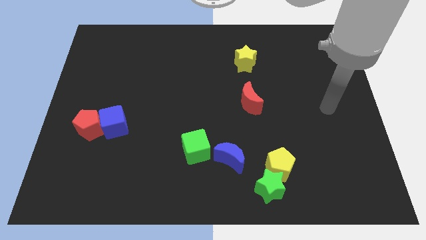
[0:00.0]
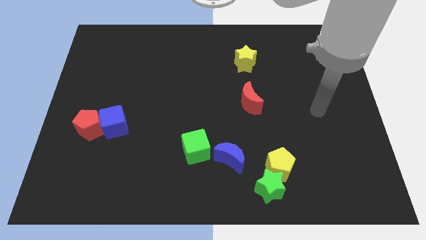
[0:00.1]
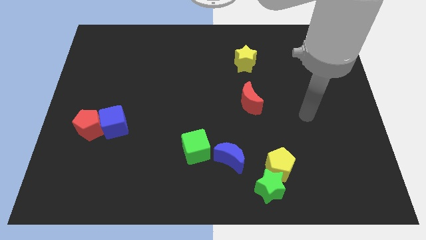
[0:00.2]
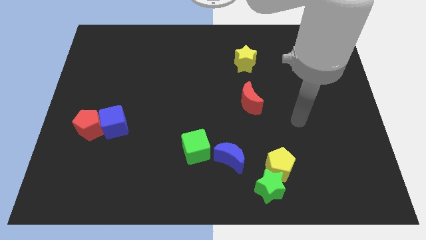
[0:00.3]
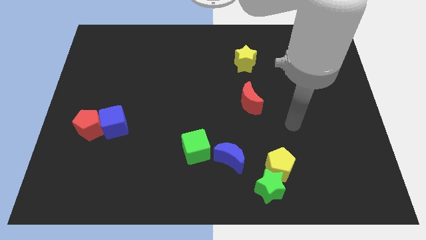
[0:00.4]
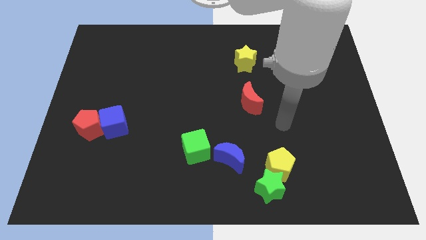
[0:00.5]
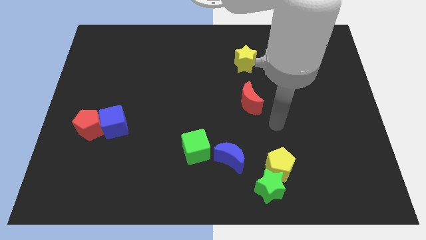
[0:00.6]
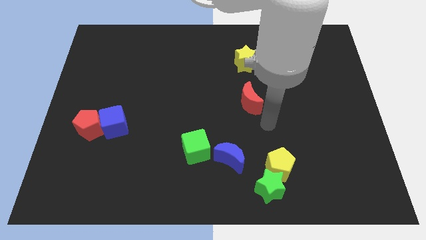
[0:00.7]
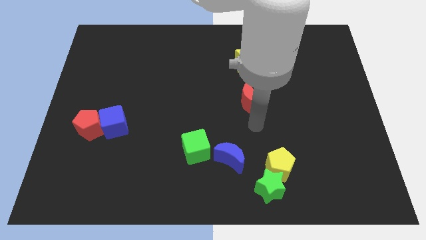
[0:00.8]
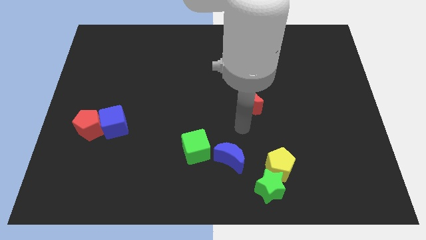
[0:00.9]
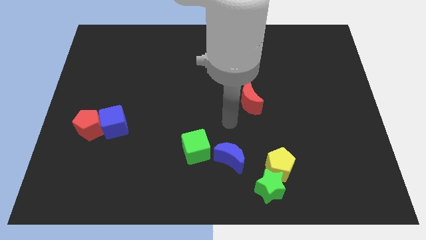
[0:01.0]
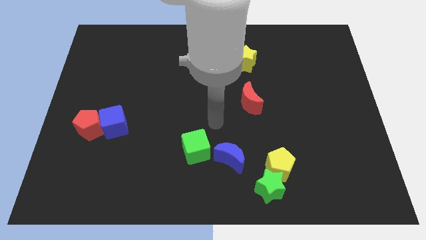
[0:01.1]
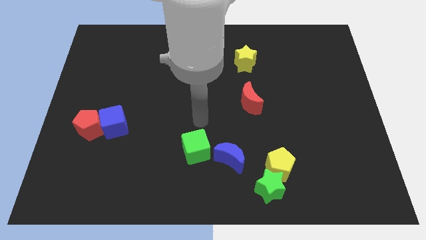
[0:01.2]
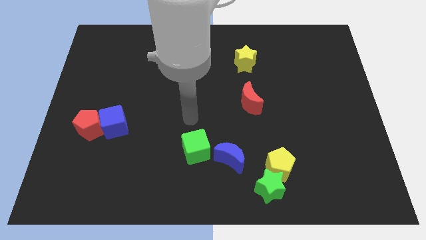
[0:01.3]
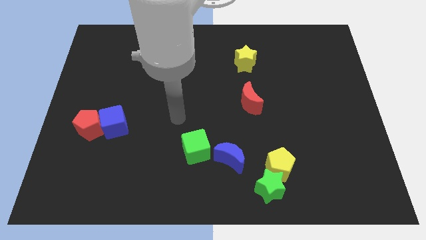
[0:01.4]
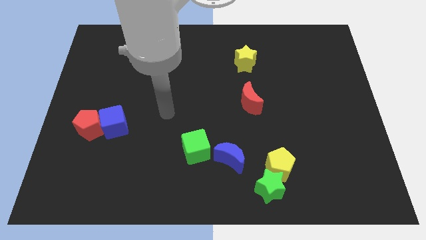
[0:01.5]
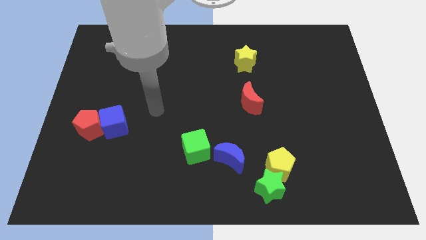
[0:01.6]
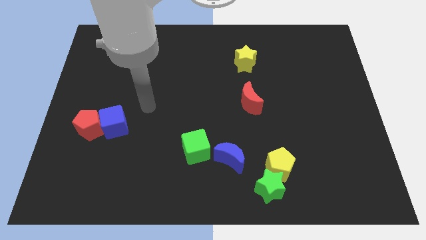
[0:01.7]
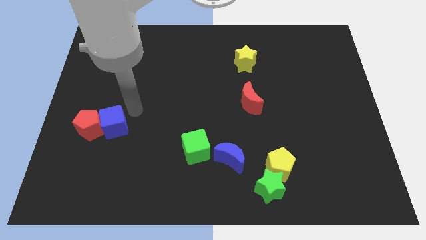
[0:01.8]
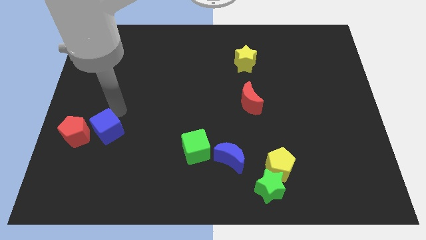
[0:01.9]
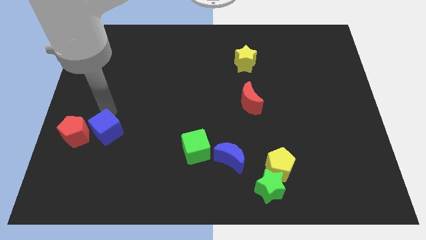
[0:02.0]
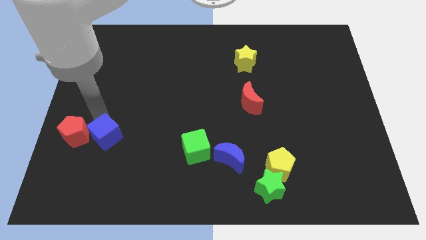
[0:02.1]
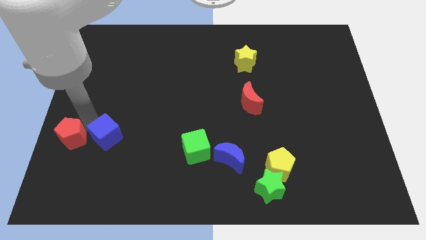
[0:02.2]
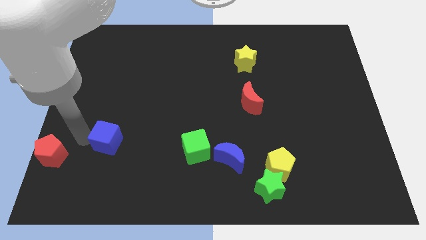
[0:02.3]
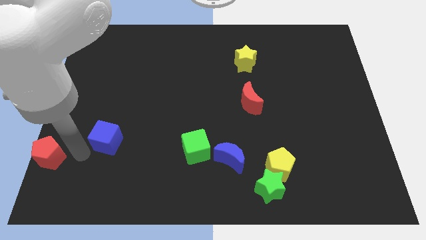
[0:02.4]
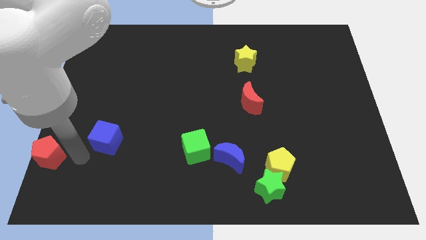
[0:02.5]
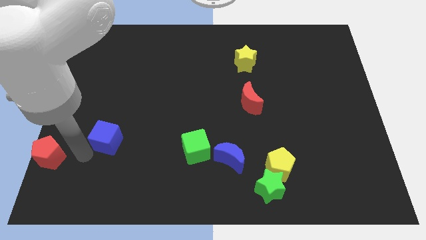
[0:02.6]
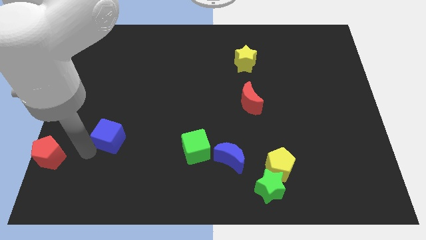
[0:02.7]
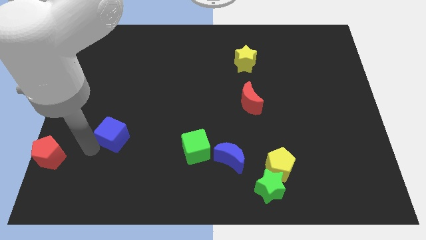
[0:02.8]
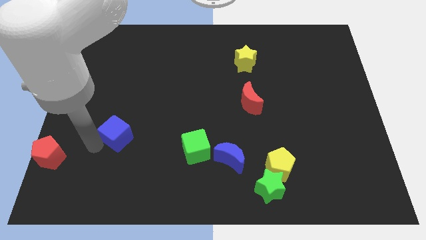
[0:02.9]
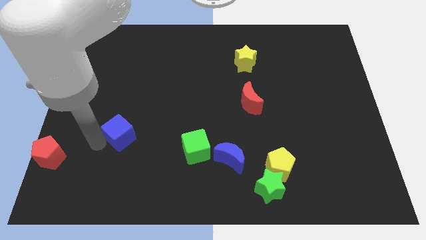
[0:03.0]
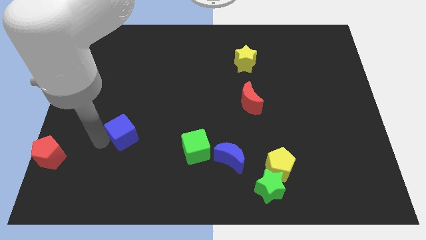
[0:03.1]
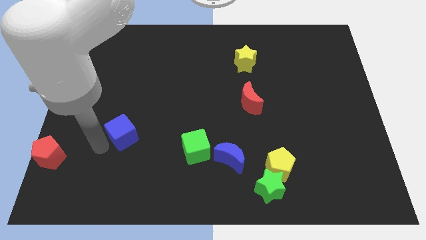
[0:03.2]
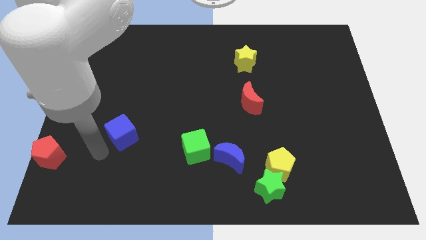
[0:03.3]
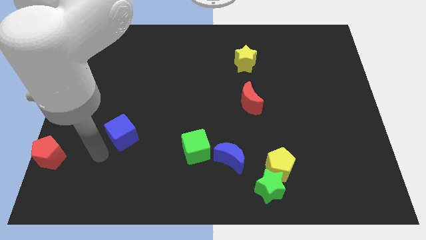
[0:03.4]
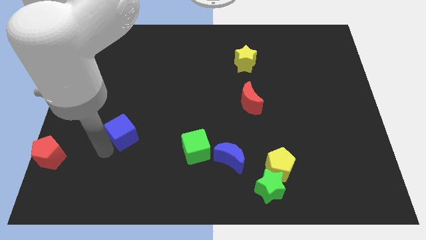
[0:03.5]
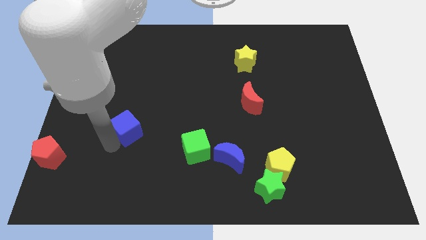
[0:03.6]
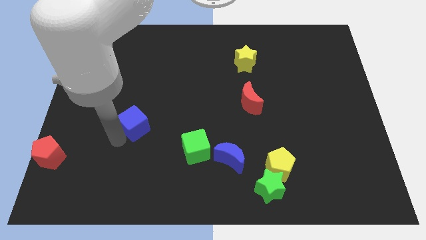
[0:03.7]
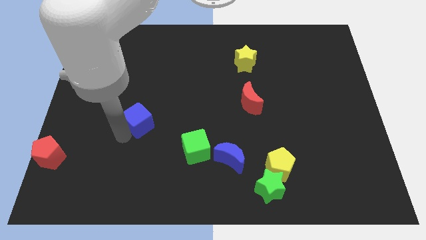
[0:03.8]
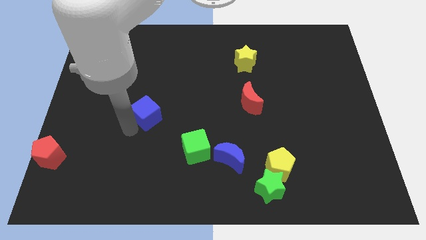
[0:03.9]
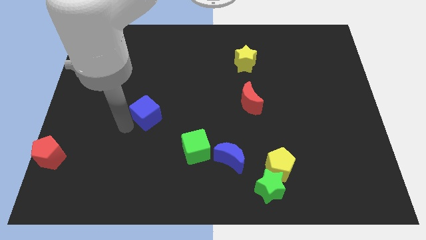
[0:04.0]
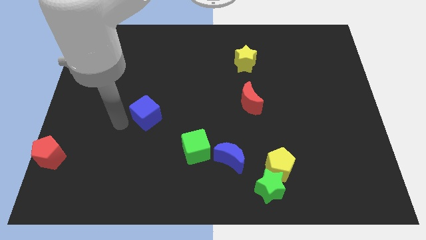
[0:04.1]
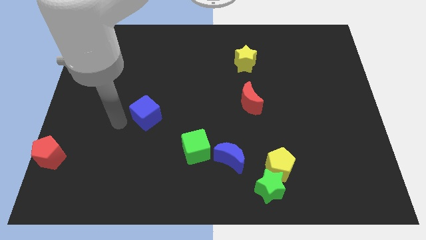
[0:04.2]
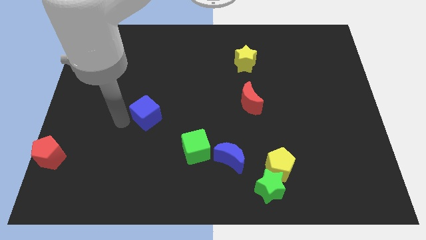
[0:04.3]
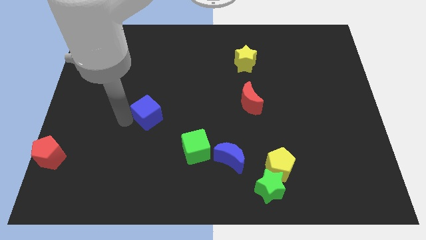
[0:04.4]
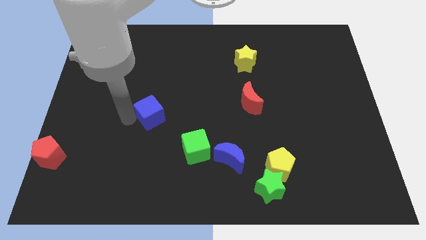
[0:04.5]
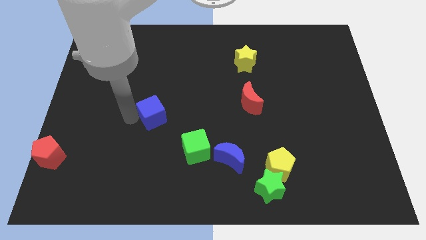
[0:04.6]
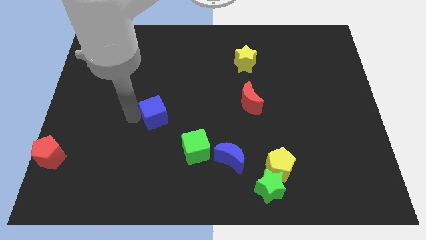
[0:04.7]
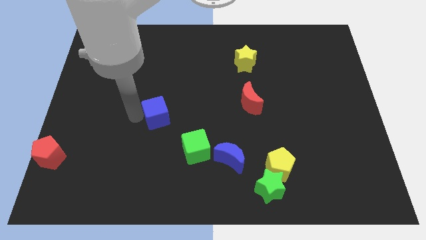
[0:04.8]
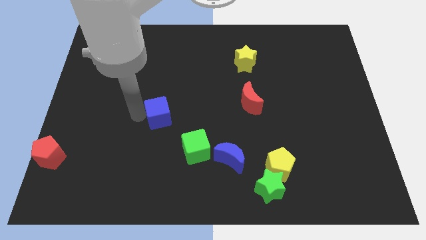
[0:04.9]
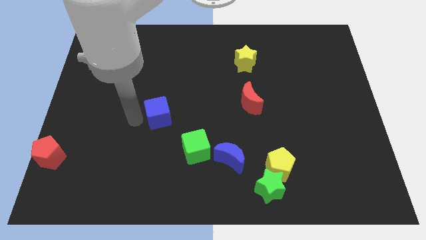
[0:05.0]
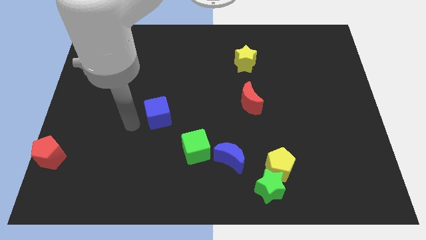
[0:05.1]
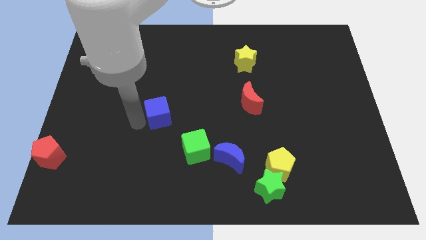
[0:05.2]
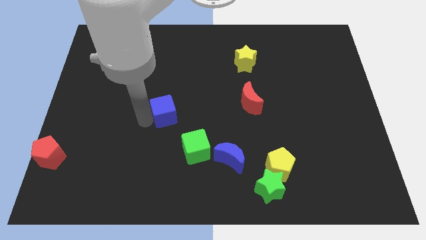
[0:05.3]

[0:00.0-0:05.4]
push the blue cube to the middle

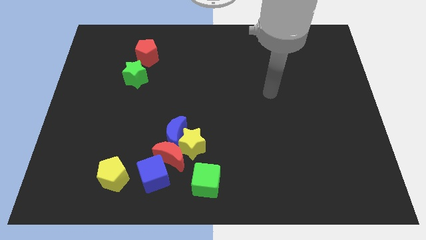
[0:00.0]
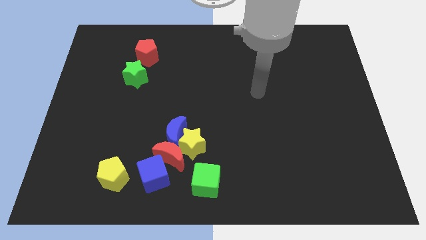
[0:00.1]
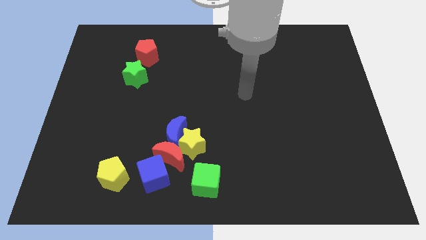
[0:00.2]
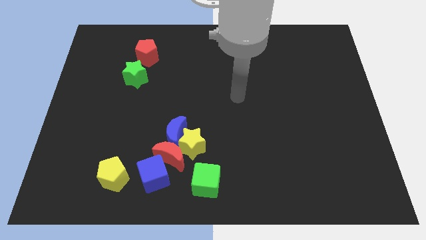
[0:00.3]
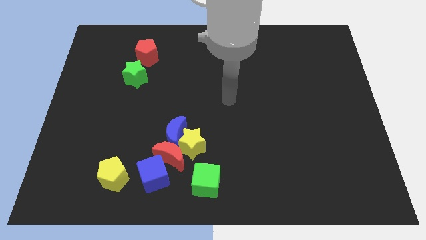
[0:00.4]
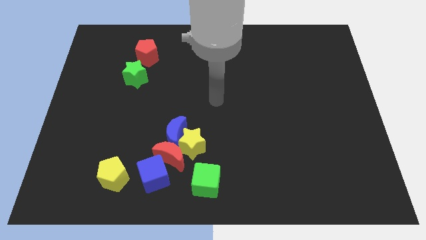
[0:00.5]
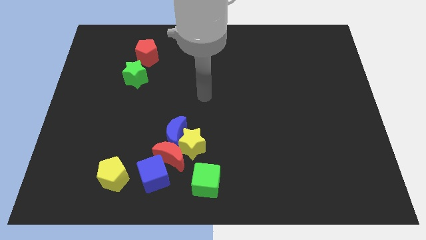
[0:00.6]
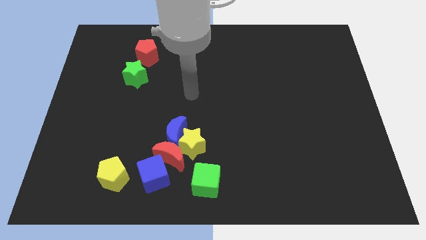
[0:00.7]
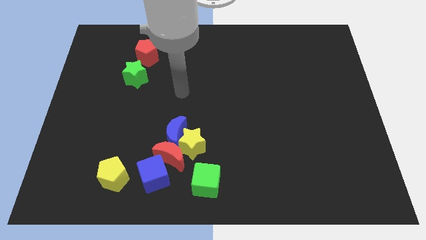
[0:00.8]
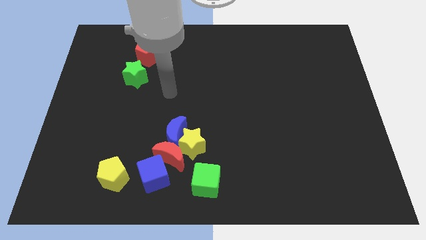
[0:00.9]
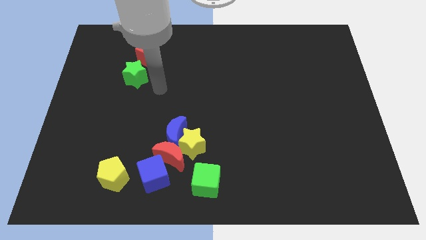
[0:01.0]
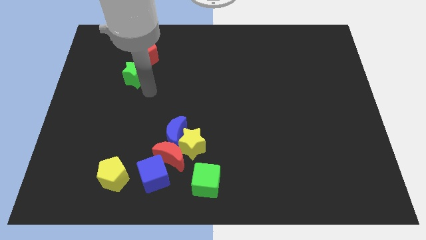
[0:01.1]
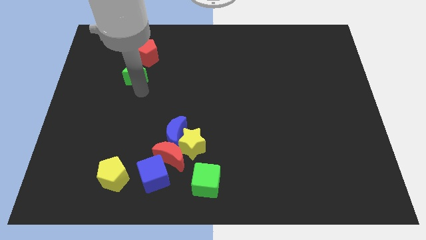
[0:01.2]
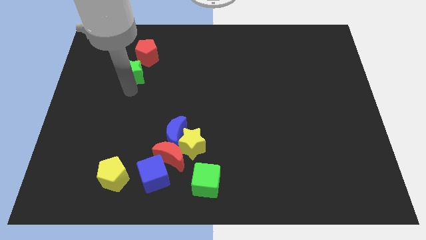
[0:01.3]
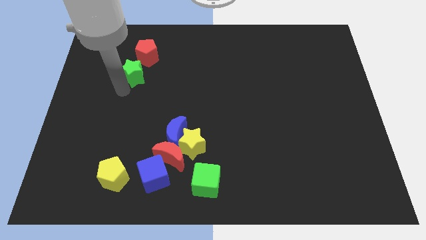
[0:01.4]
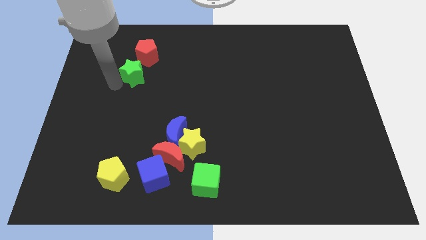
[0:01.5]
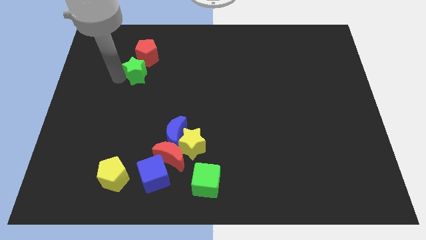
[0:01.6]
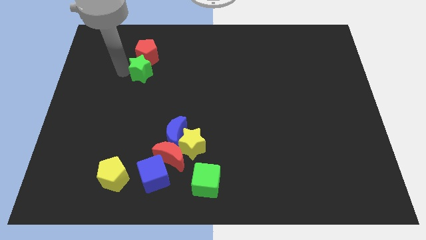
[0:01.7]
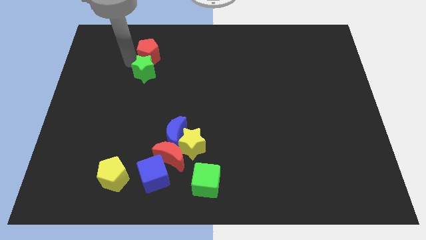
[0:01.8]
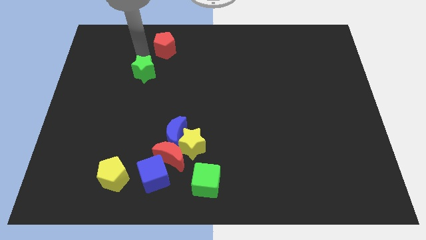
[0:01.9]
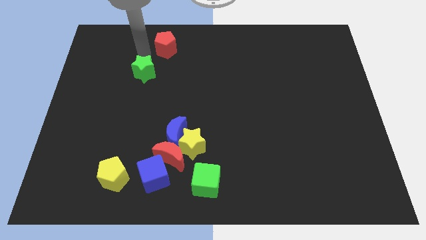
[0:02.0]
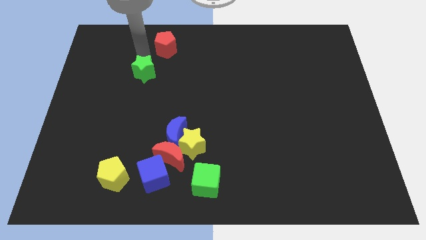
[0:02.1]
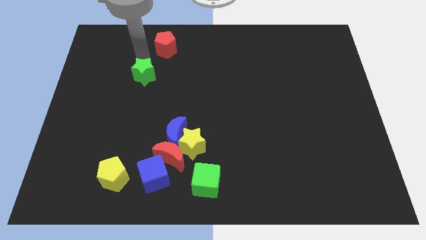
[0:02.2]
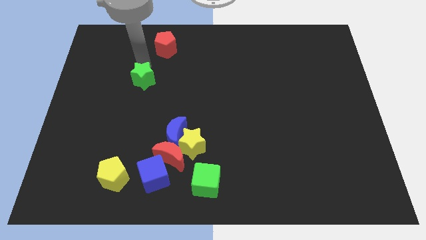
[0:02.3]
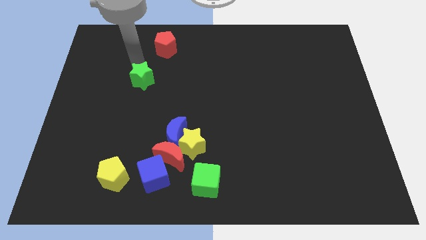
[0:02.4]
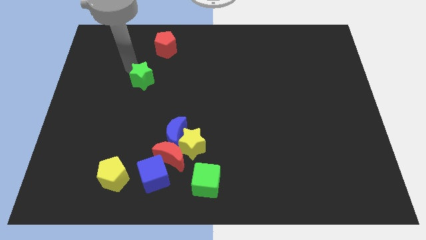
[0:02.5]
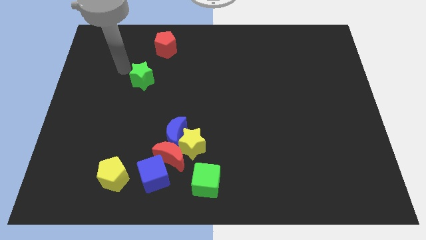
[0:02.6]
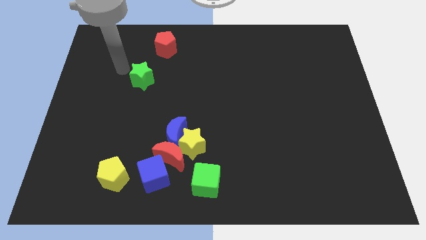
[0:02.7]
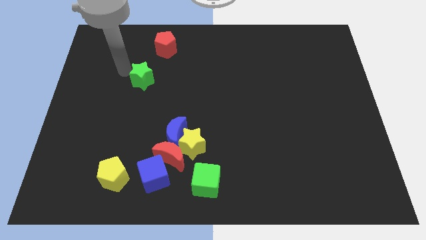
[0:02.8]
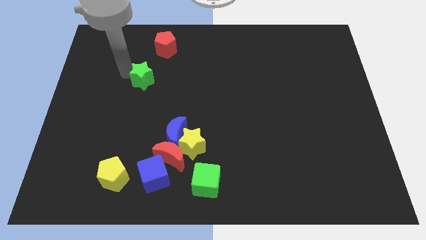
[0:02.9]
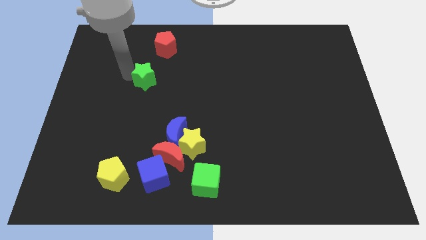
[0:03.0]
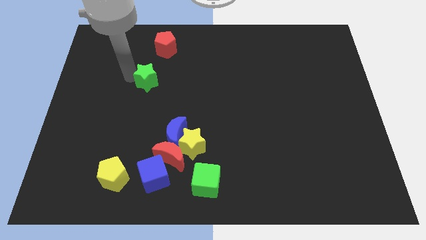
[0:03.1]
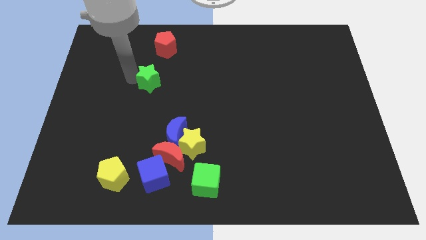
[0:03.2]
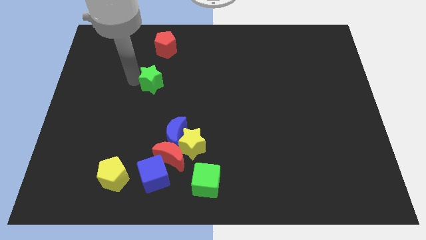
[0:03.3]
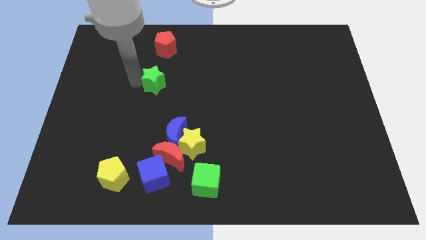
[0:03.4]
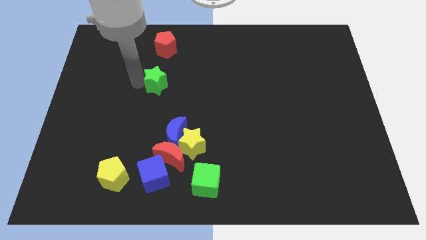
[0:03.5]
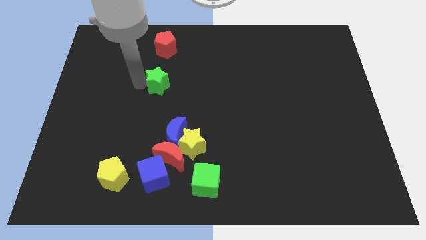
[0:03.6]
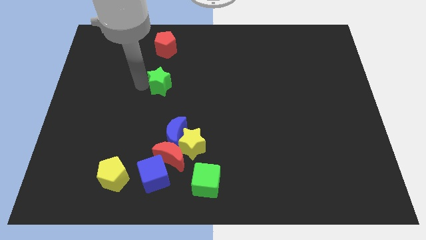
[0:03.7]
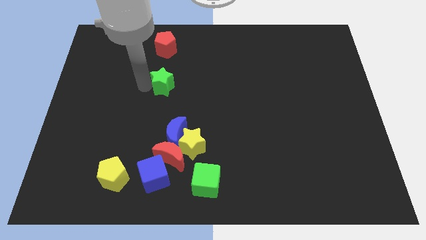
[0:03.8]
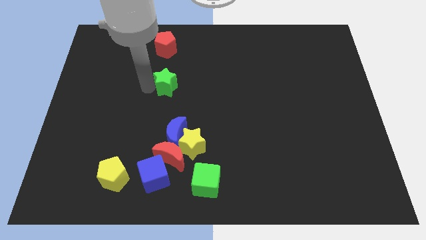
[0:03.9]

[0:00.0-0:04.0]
put the green star to the center of the board
